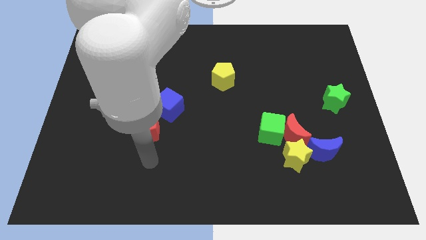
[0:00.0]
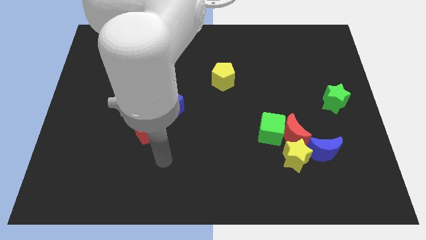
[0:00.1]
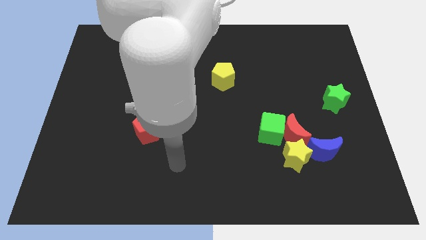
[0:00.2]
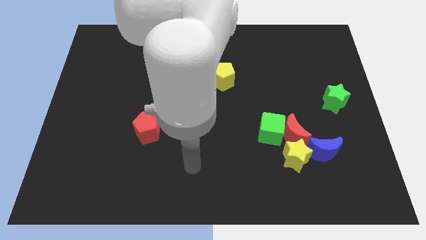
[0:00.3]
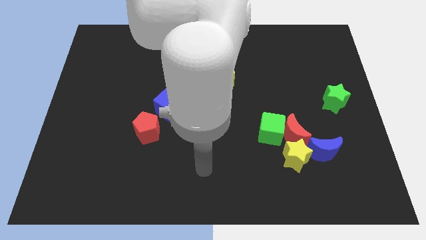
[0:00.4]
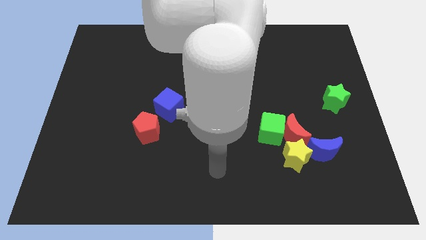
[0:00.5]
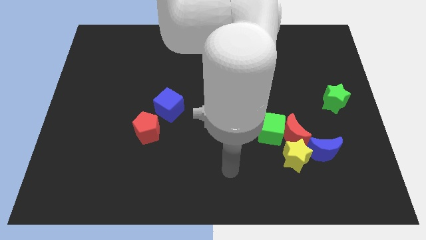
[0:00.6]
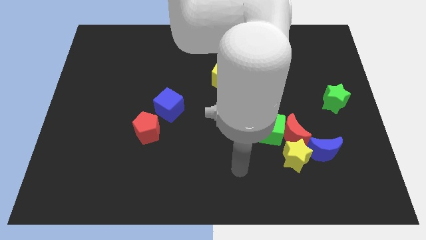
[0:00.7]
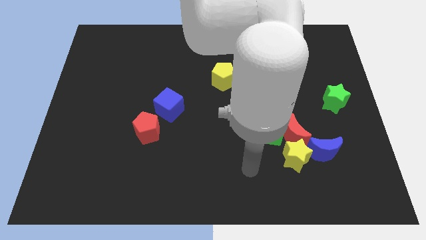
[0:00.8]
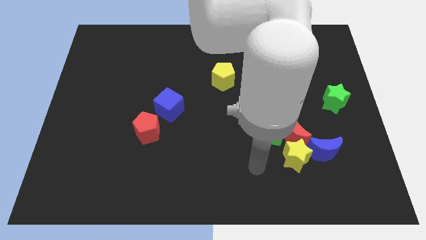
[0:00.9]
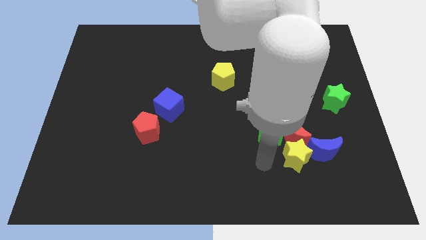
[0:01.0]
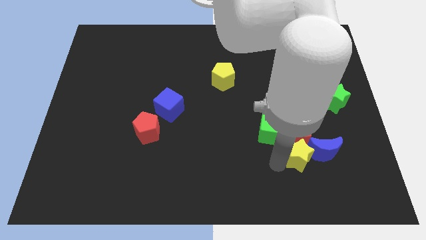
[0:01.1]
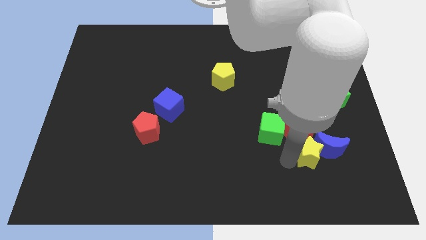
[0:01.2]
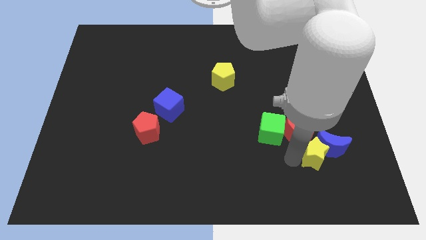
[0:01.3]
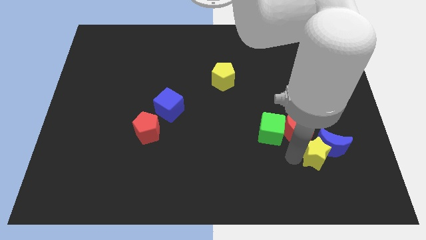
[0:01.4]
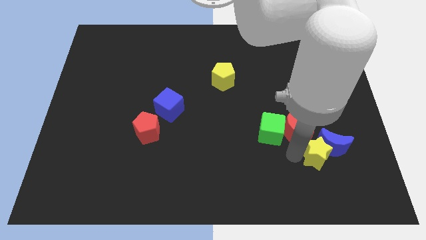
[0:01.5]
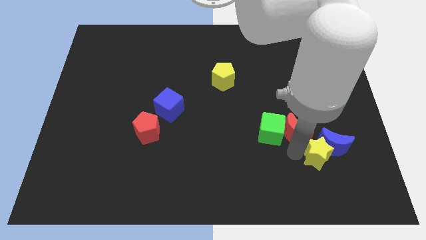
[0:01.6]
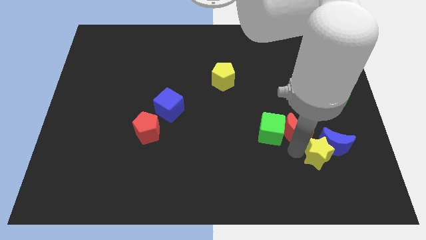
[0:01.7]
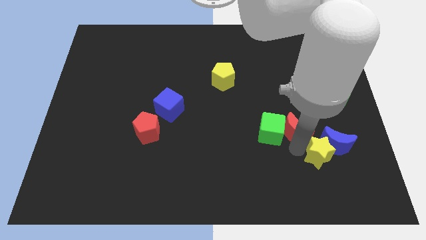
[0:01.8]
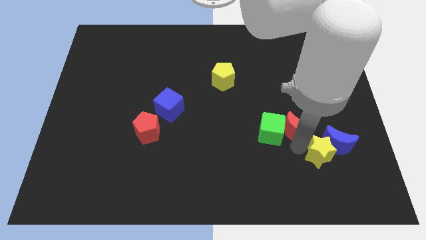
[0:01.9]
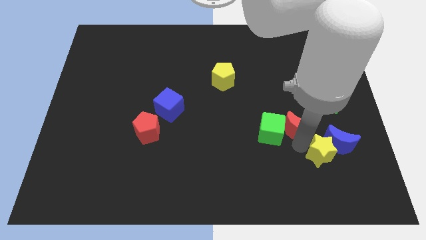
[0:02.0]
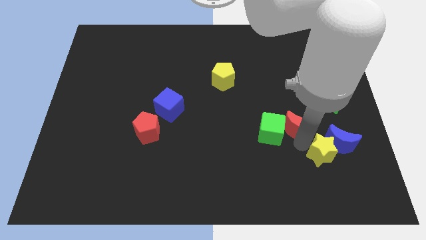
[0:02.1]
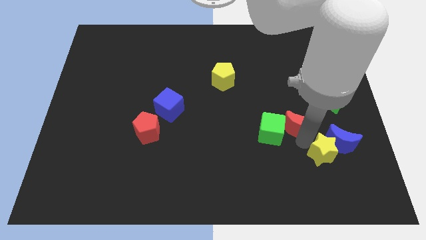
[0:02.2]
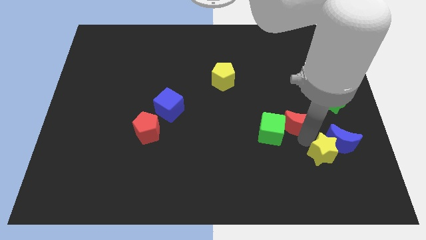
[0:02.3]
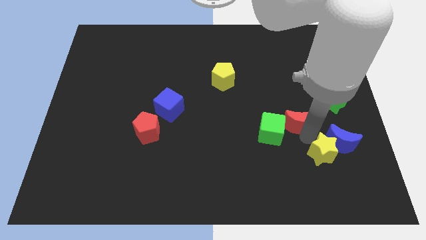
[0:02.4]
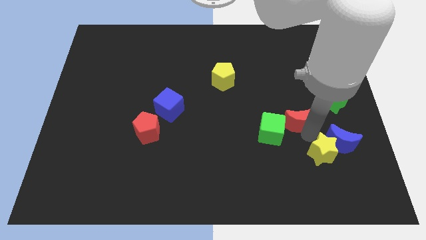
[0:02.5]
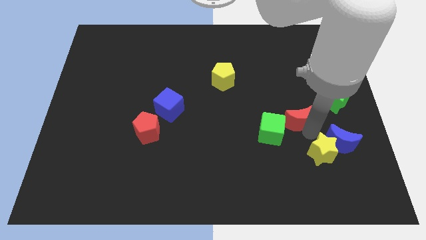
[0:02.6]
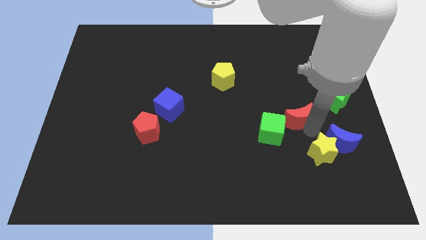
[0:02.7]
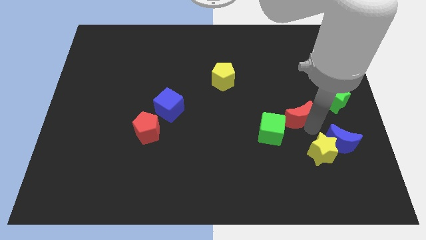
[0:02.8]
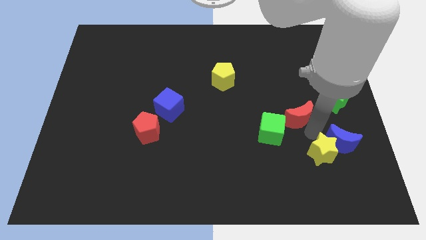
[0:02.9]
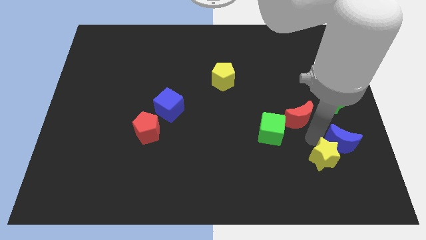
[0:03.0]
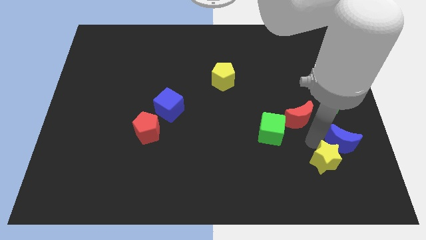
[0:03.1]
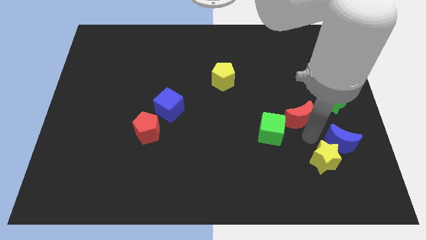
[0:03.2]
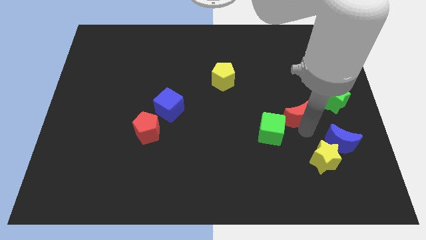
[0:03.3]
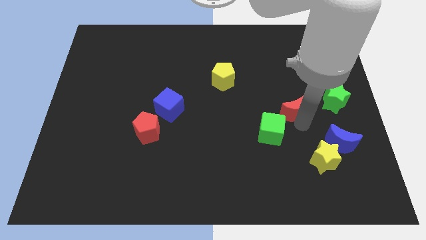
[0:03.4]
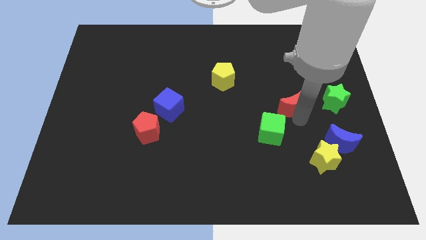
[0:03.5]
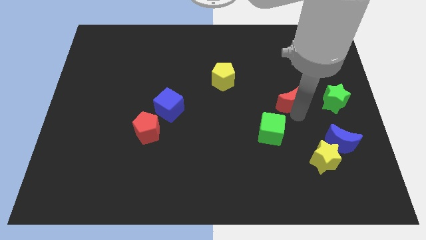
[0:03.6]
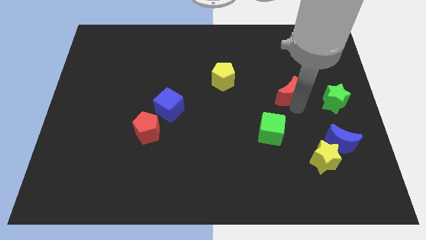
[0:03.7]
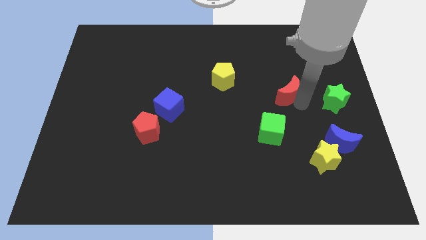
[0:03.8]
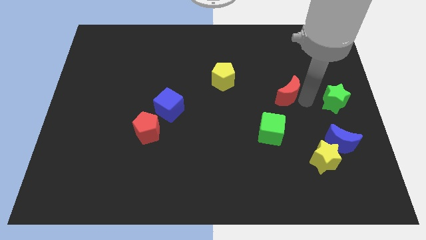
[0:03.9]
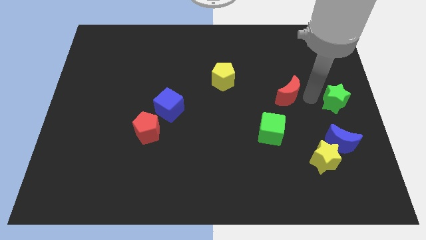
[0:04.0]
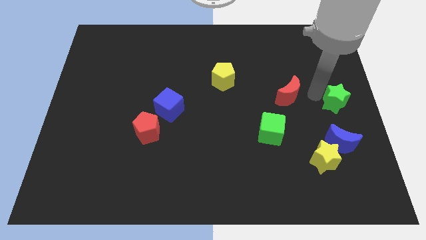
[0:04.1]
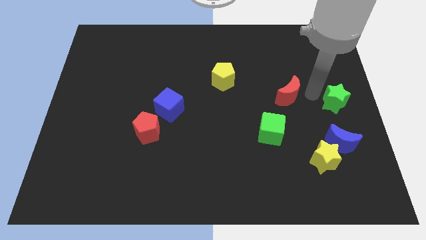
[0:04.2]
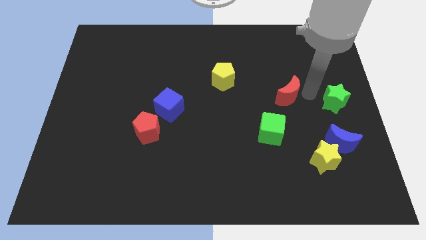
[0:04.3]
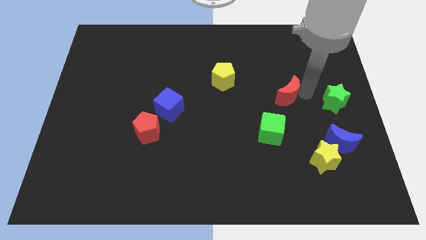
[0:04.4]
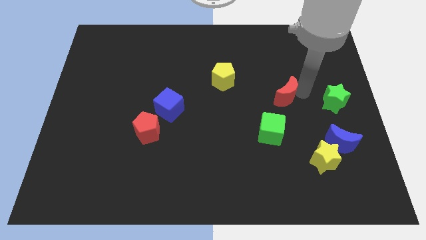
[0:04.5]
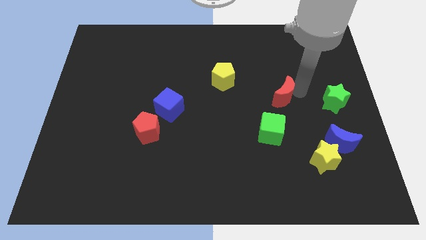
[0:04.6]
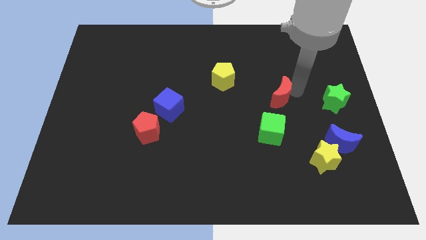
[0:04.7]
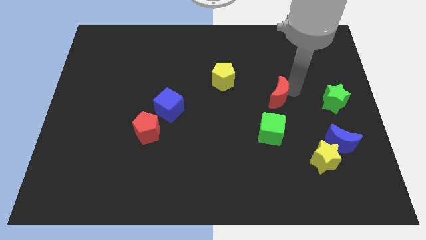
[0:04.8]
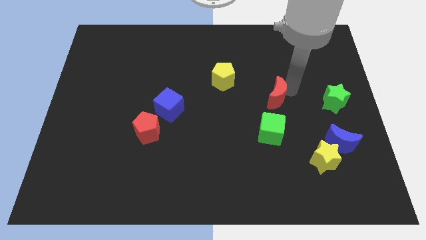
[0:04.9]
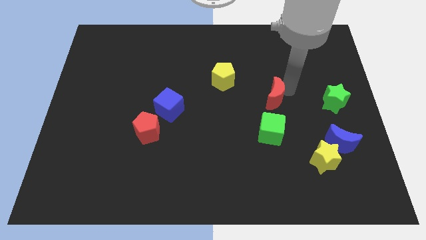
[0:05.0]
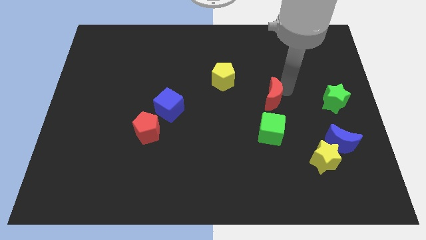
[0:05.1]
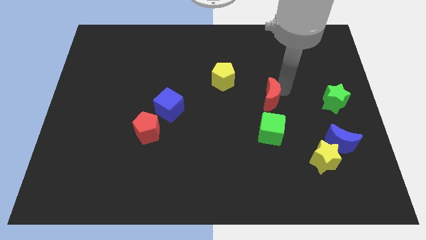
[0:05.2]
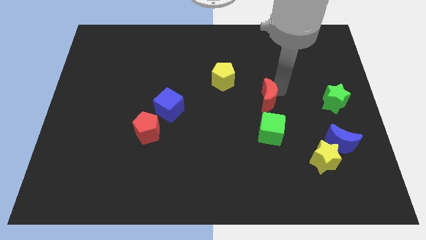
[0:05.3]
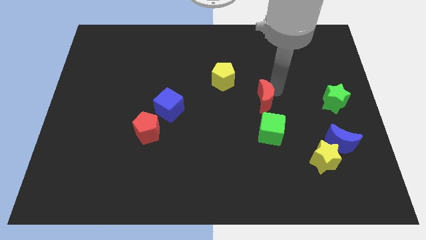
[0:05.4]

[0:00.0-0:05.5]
move the red moon to the center

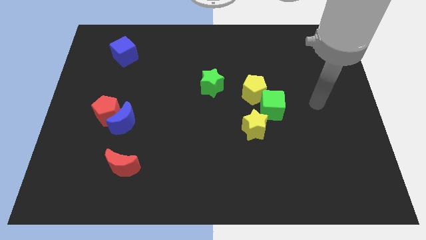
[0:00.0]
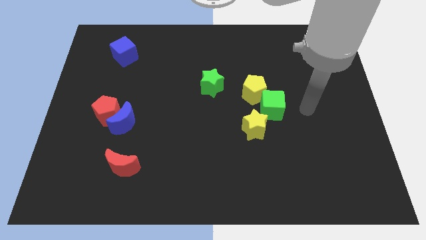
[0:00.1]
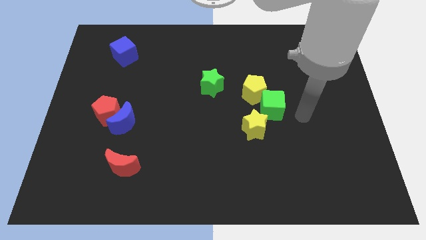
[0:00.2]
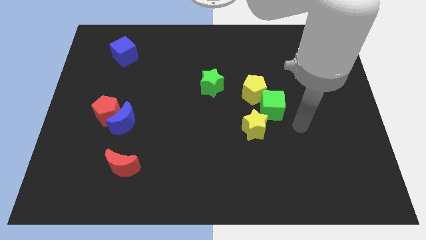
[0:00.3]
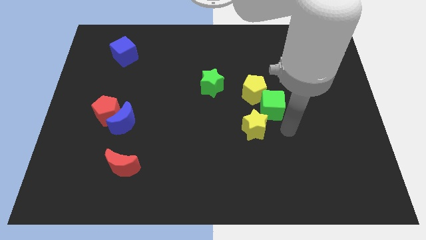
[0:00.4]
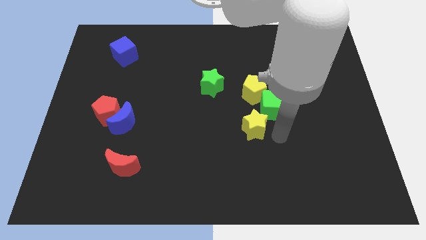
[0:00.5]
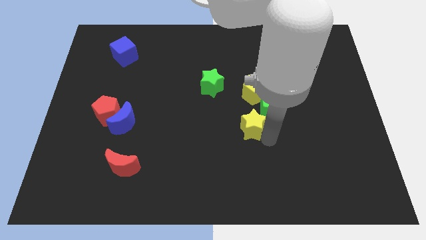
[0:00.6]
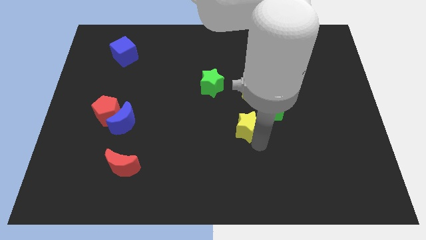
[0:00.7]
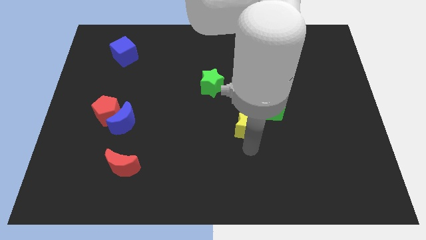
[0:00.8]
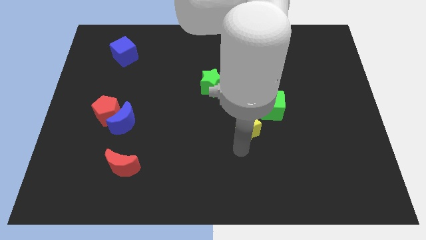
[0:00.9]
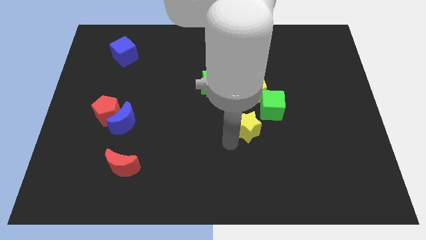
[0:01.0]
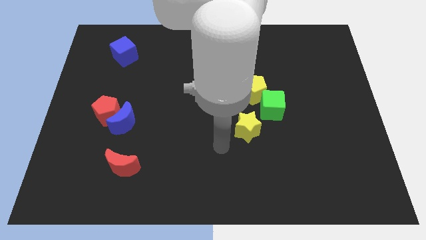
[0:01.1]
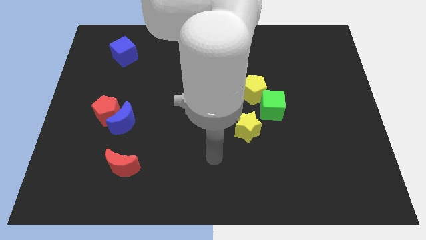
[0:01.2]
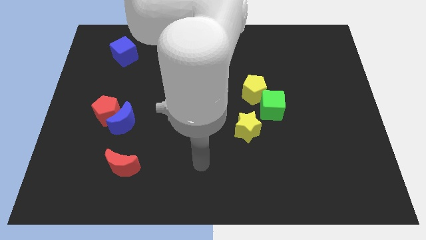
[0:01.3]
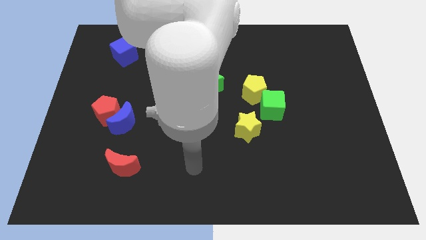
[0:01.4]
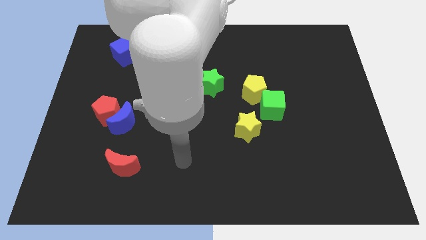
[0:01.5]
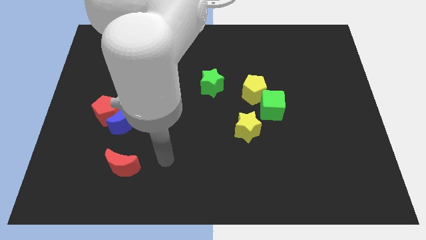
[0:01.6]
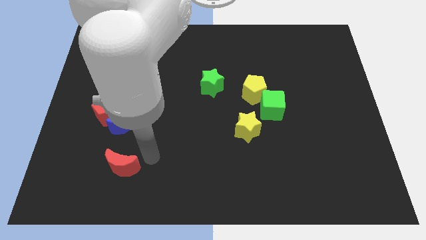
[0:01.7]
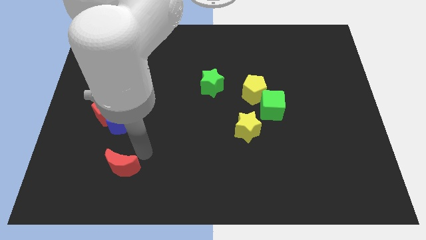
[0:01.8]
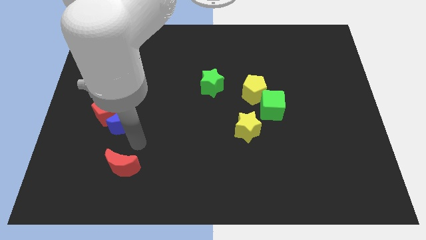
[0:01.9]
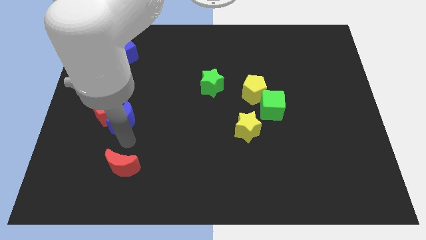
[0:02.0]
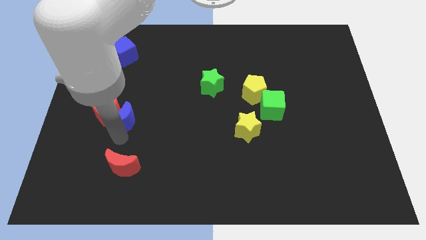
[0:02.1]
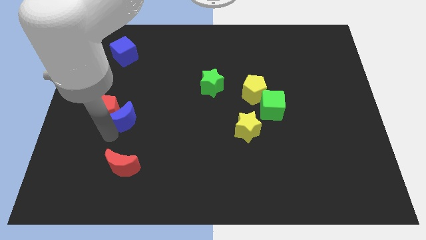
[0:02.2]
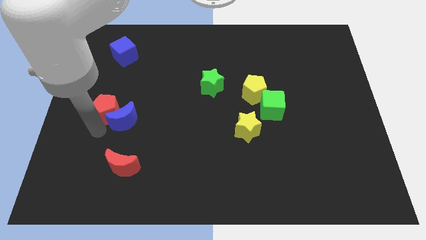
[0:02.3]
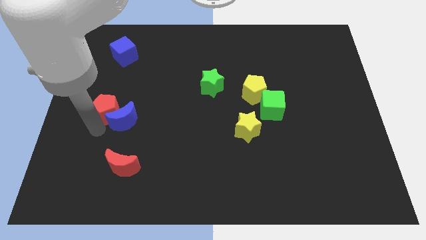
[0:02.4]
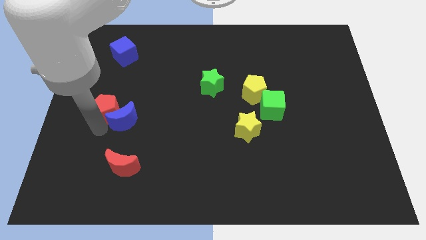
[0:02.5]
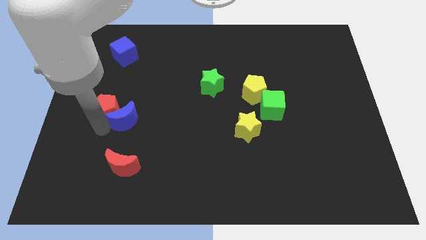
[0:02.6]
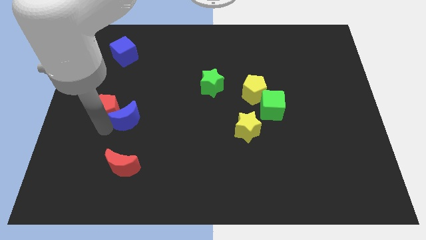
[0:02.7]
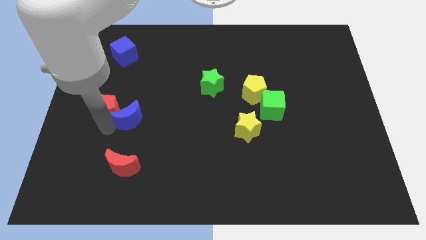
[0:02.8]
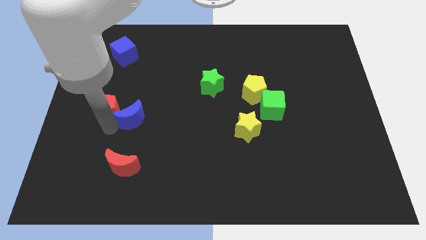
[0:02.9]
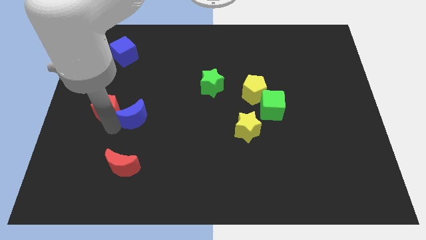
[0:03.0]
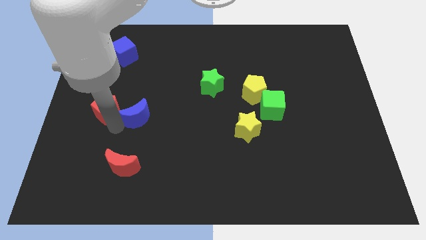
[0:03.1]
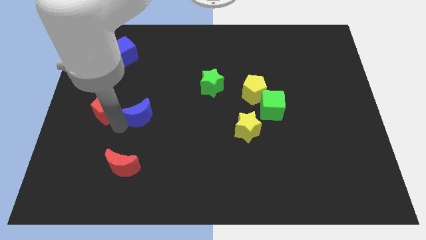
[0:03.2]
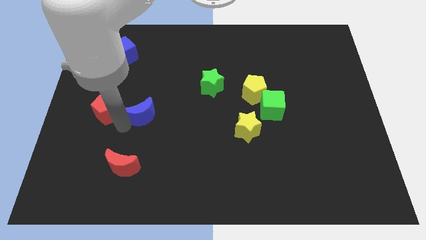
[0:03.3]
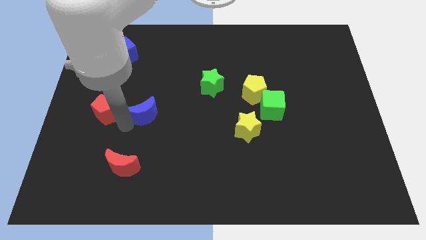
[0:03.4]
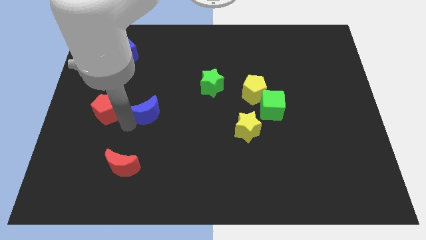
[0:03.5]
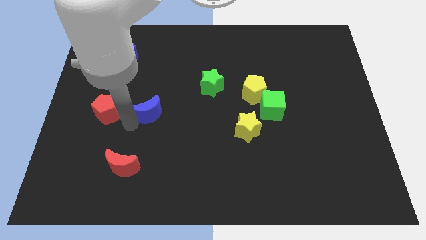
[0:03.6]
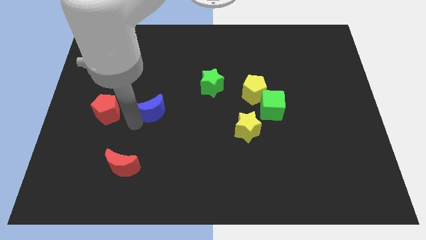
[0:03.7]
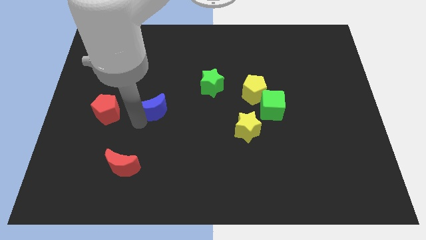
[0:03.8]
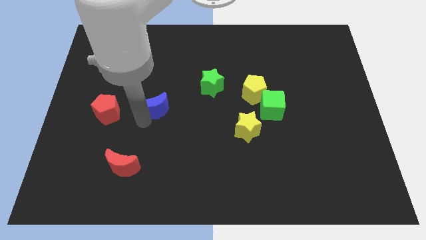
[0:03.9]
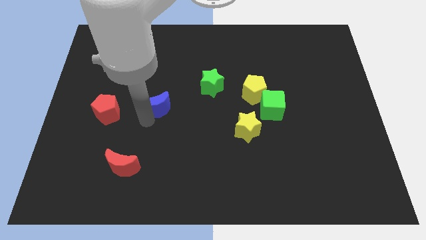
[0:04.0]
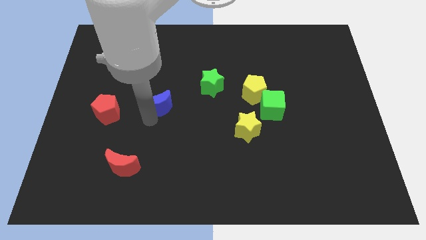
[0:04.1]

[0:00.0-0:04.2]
slide the blue moon to the center of the board
